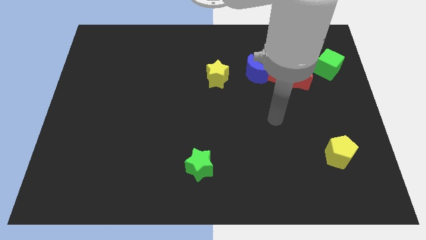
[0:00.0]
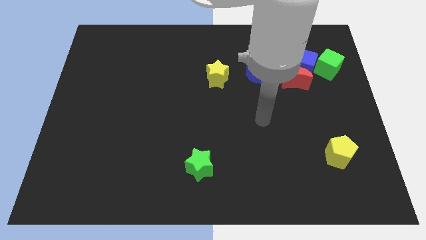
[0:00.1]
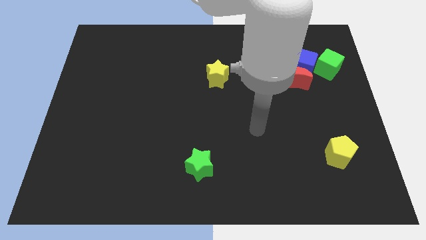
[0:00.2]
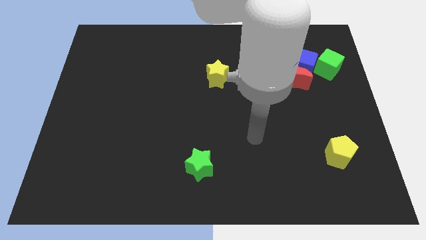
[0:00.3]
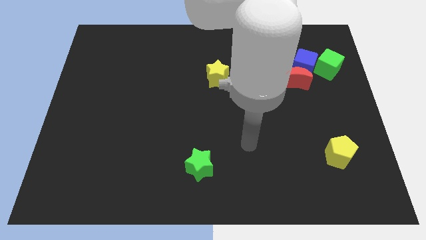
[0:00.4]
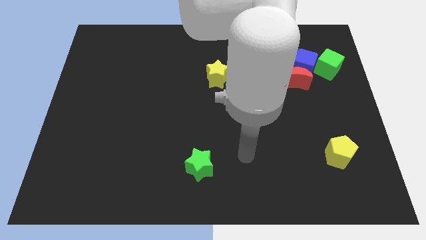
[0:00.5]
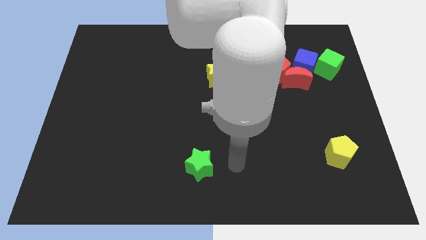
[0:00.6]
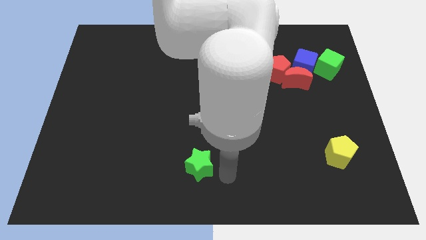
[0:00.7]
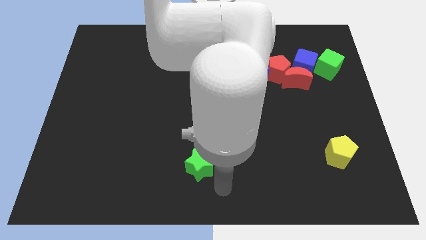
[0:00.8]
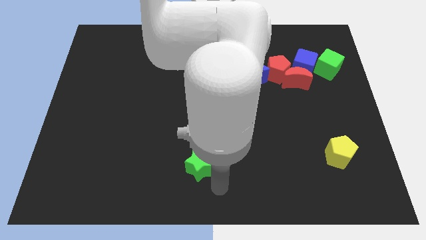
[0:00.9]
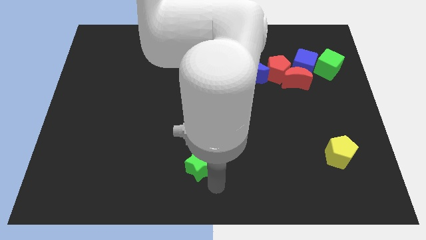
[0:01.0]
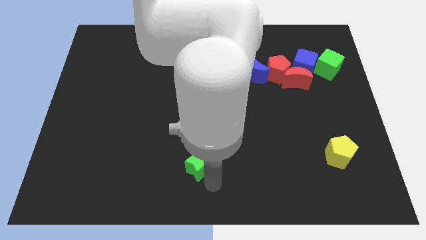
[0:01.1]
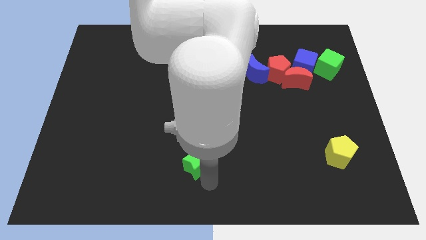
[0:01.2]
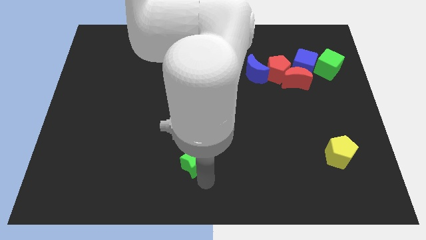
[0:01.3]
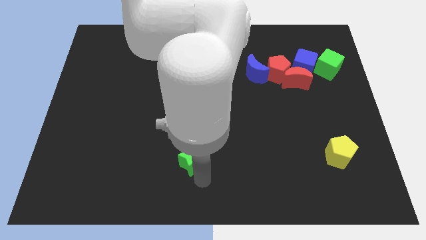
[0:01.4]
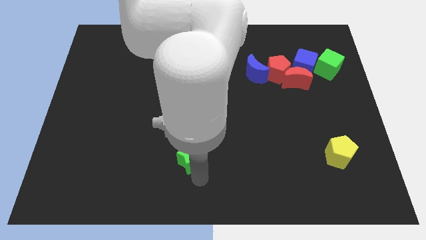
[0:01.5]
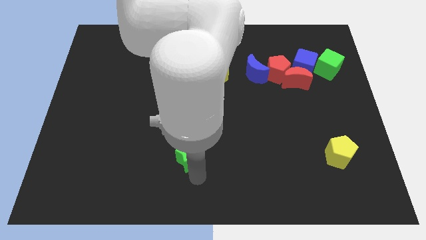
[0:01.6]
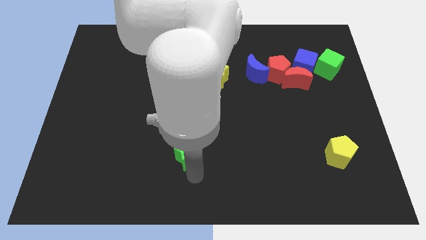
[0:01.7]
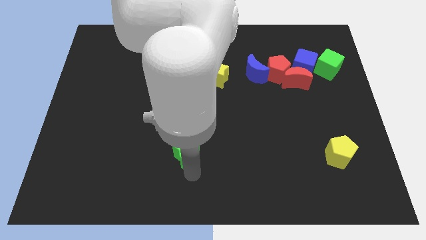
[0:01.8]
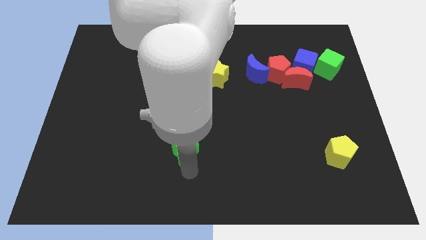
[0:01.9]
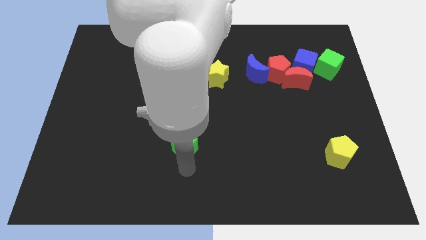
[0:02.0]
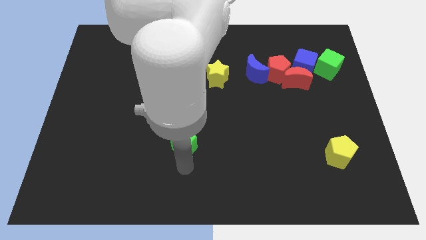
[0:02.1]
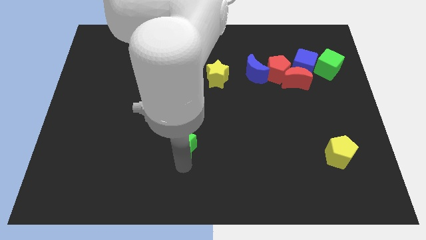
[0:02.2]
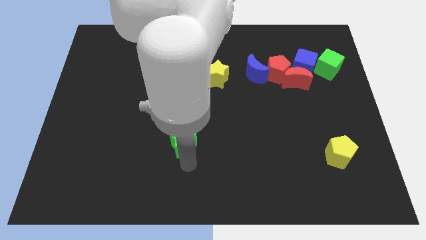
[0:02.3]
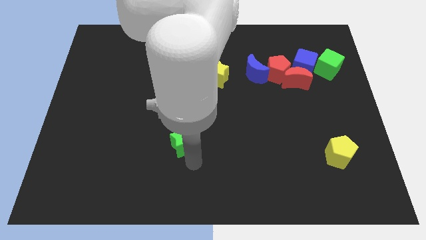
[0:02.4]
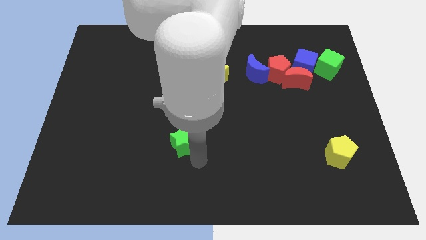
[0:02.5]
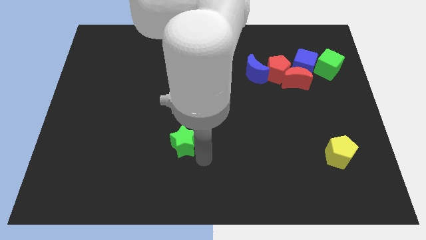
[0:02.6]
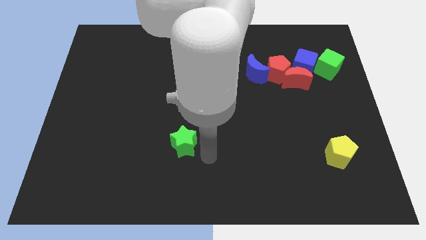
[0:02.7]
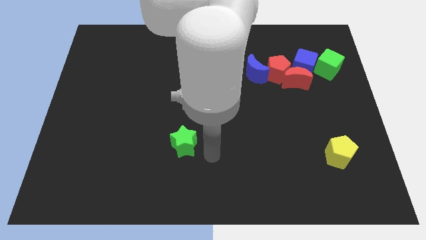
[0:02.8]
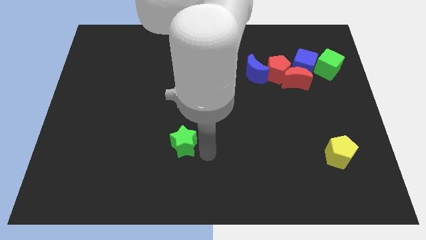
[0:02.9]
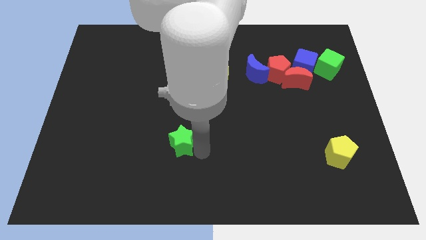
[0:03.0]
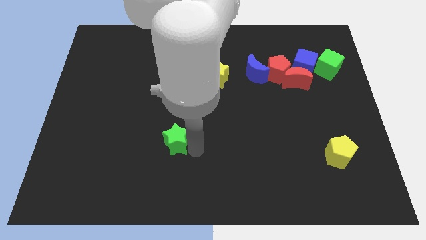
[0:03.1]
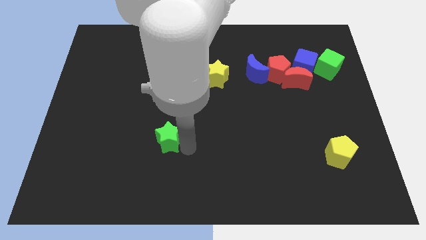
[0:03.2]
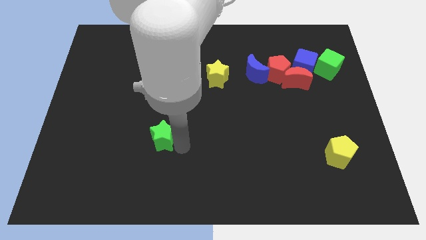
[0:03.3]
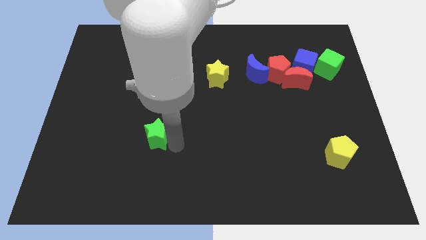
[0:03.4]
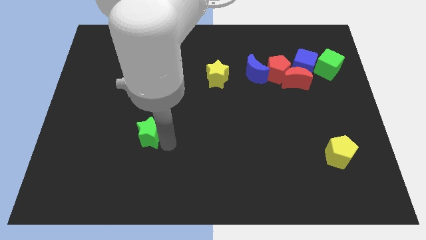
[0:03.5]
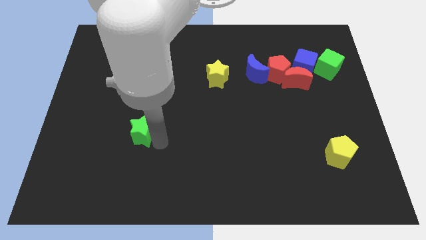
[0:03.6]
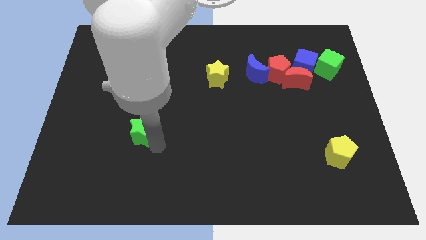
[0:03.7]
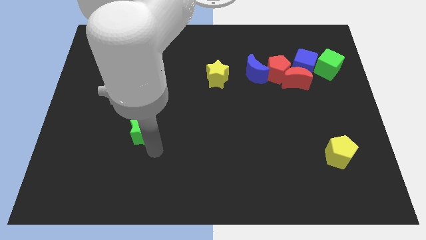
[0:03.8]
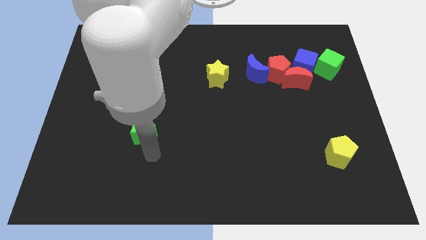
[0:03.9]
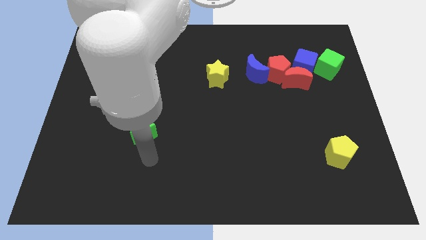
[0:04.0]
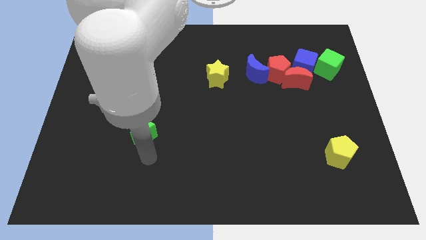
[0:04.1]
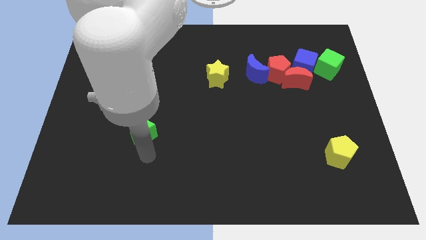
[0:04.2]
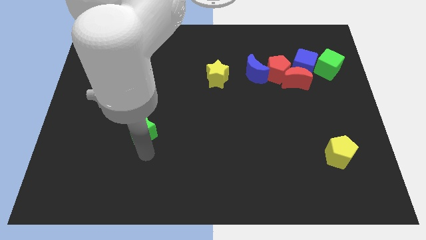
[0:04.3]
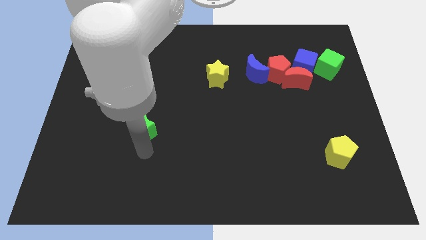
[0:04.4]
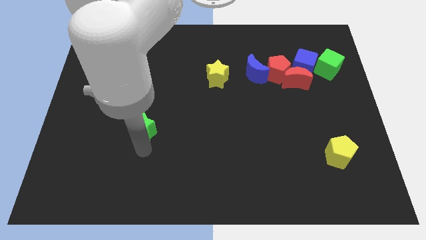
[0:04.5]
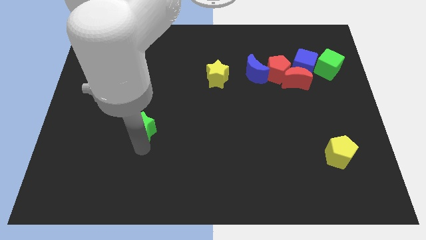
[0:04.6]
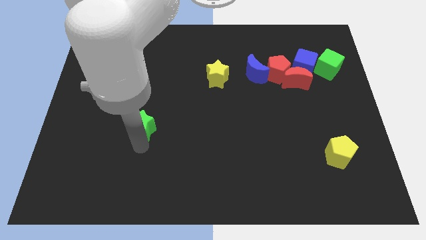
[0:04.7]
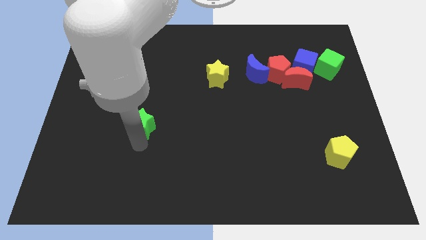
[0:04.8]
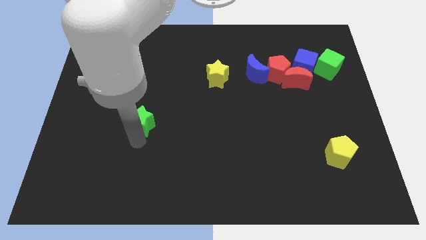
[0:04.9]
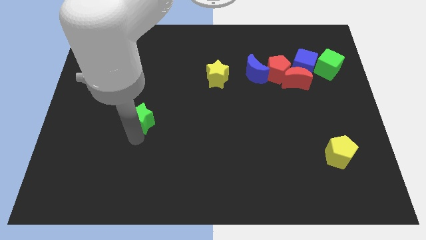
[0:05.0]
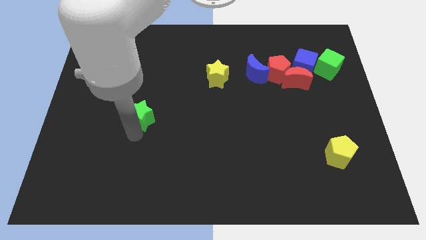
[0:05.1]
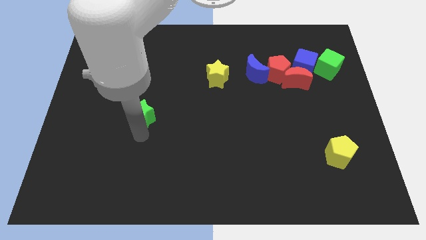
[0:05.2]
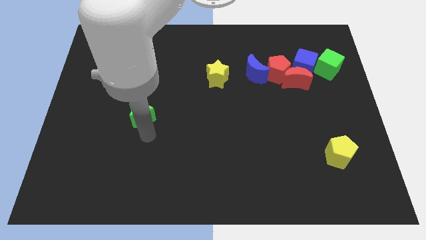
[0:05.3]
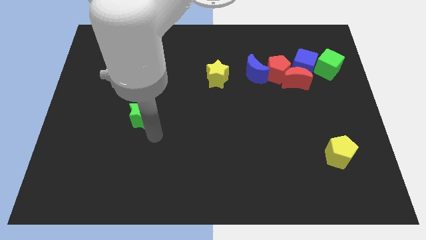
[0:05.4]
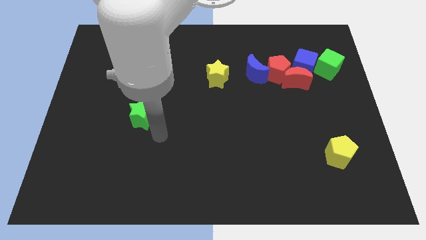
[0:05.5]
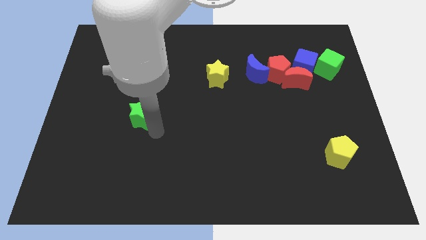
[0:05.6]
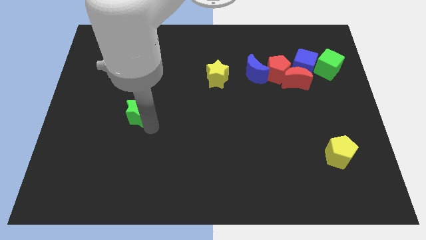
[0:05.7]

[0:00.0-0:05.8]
slide the green star up and left

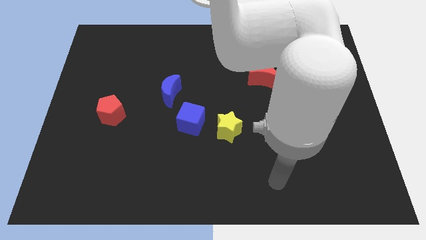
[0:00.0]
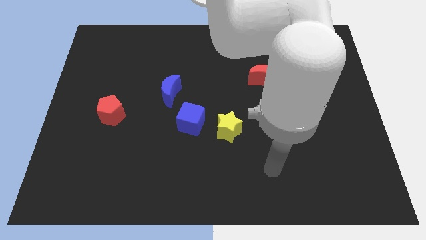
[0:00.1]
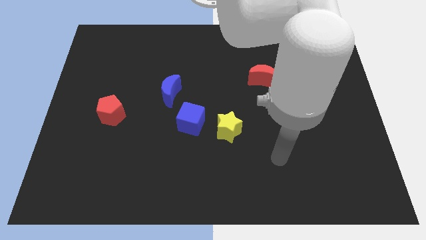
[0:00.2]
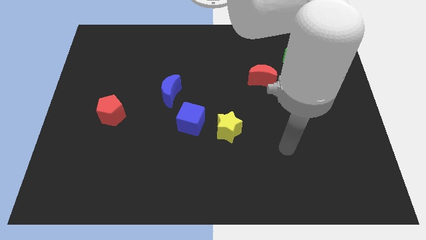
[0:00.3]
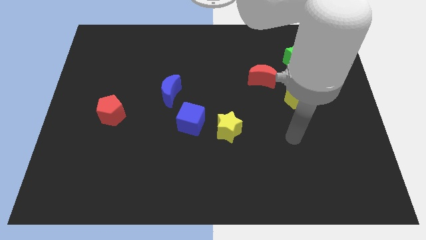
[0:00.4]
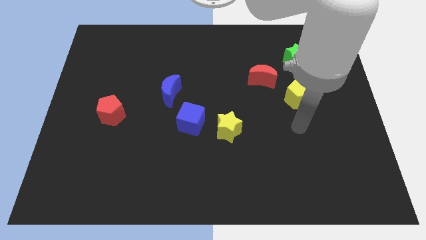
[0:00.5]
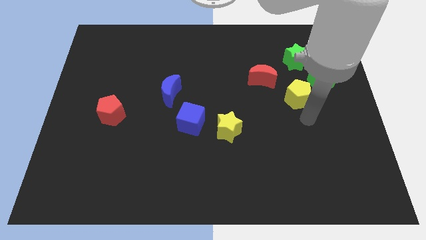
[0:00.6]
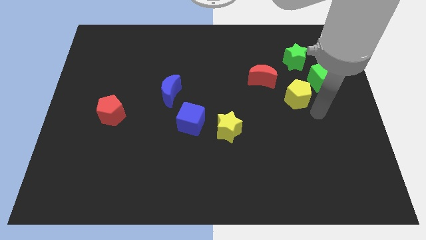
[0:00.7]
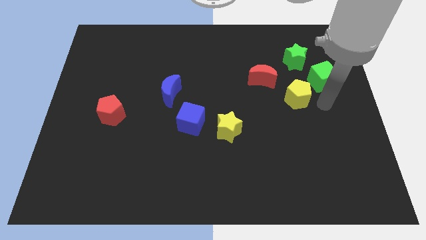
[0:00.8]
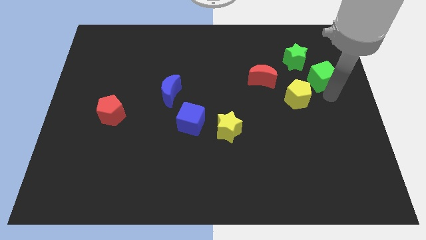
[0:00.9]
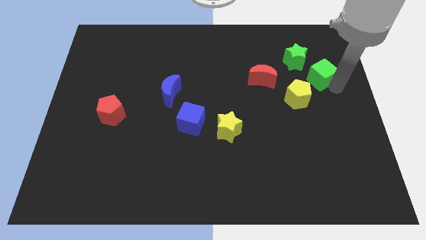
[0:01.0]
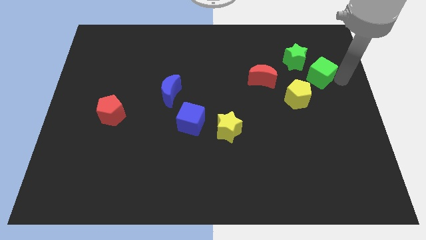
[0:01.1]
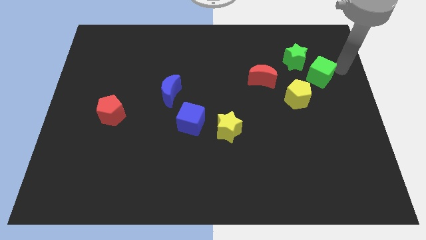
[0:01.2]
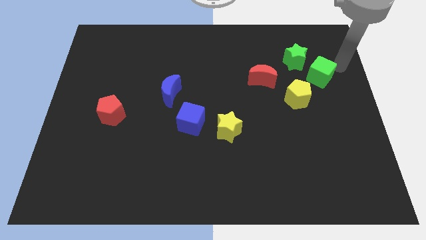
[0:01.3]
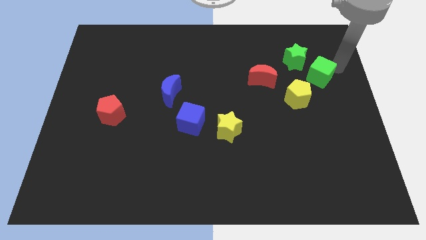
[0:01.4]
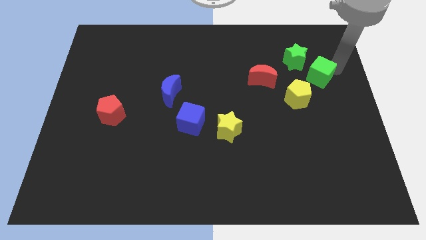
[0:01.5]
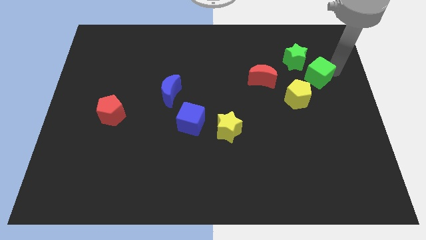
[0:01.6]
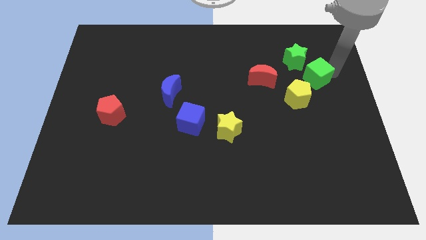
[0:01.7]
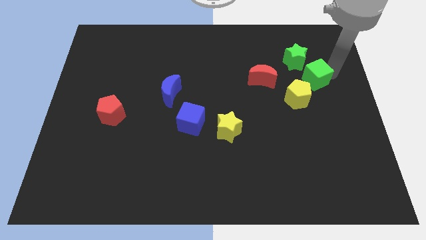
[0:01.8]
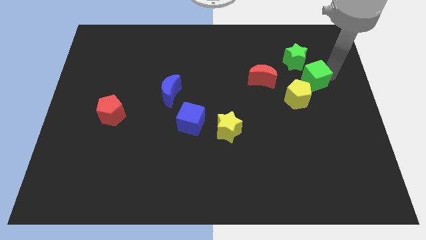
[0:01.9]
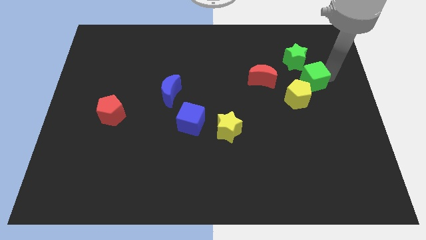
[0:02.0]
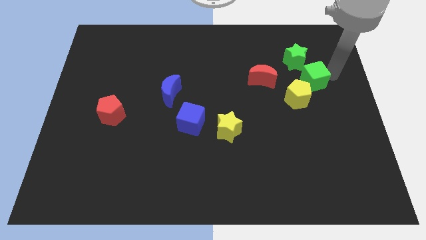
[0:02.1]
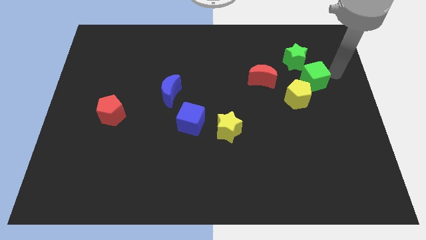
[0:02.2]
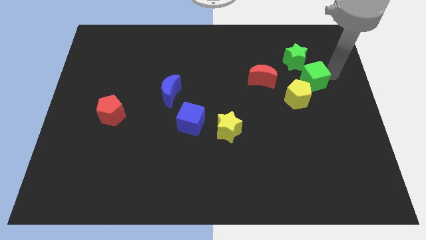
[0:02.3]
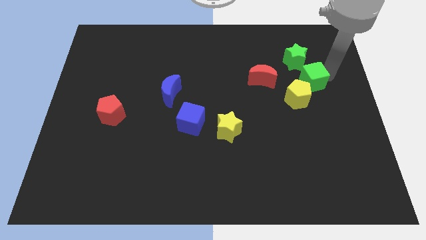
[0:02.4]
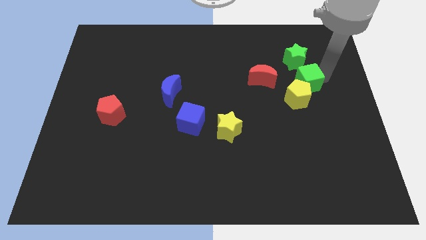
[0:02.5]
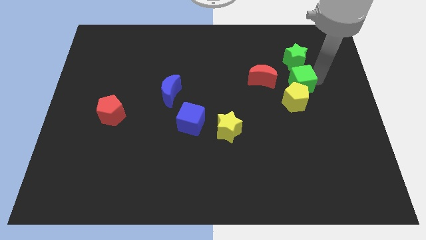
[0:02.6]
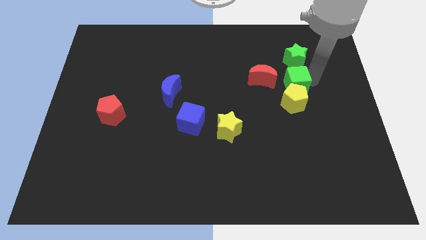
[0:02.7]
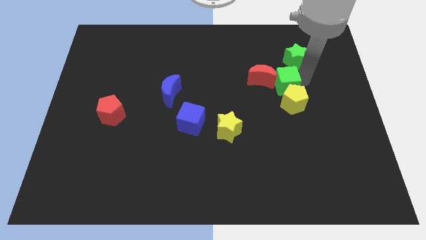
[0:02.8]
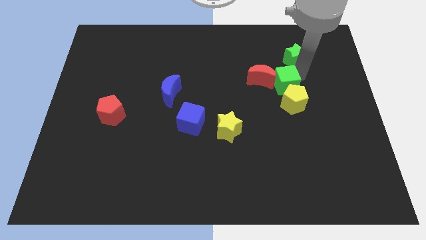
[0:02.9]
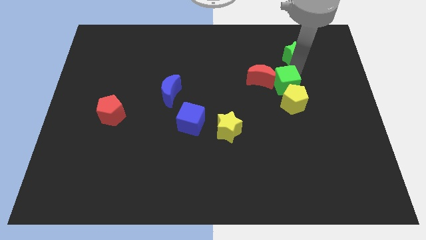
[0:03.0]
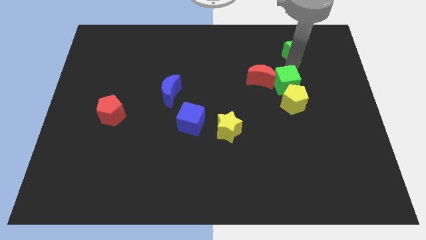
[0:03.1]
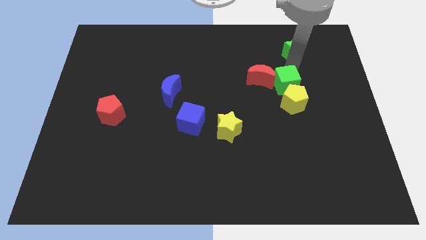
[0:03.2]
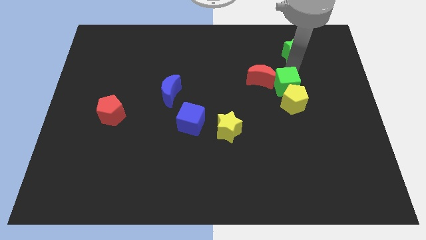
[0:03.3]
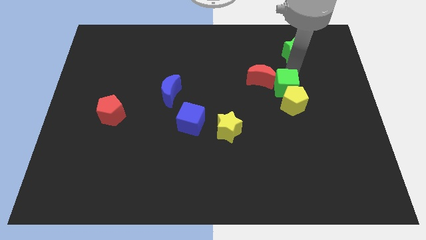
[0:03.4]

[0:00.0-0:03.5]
move the green cube diagonally downwards and to the left a little bit
